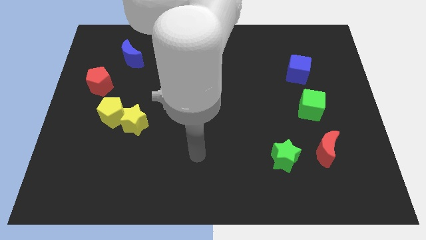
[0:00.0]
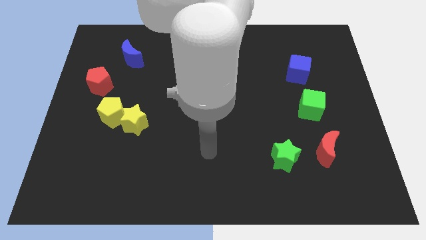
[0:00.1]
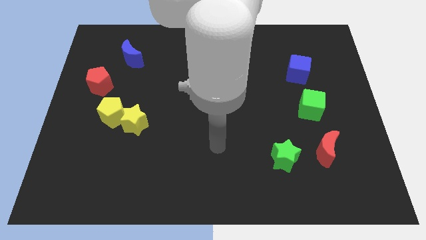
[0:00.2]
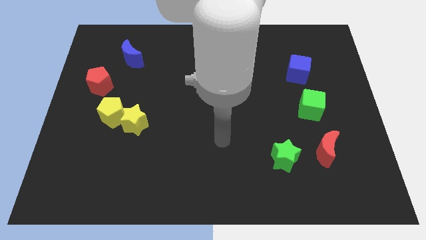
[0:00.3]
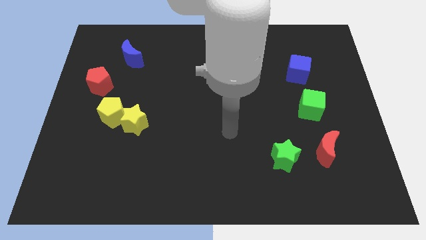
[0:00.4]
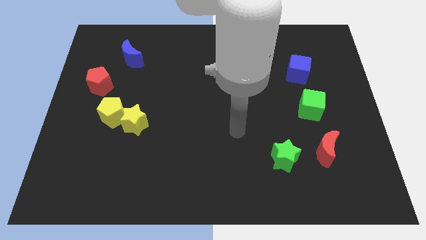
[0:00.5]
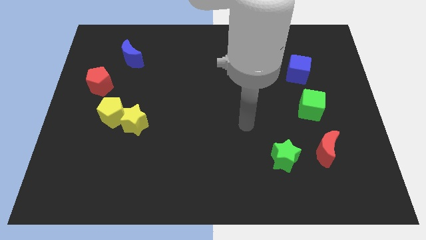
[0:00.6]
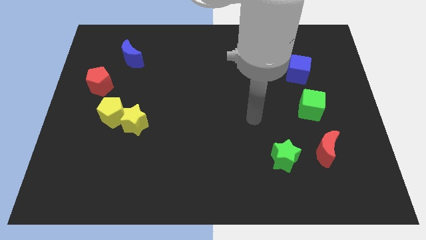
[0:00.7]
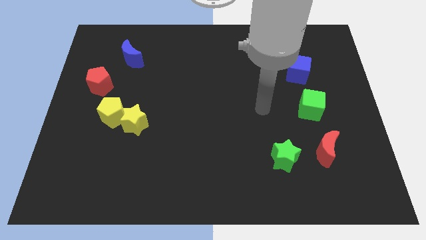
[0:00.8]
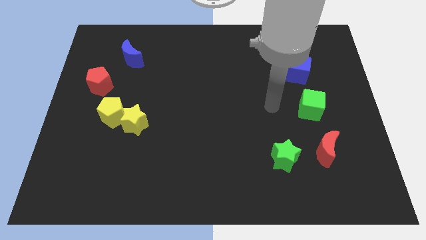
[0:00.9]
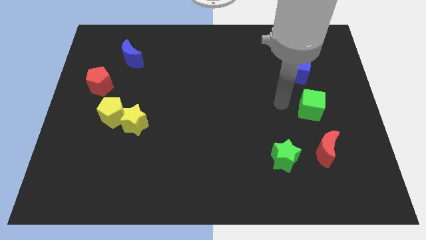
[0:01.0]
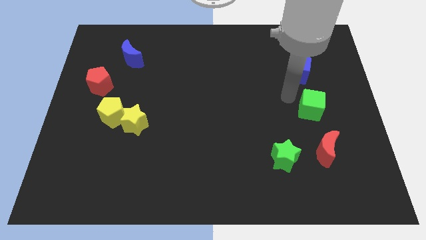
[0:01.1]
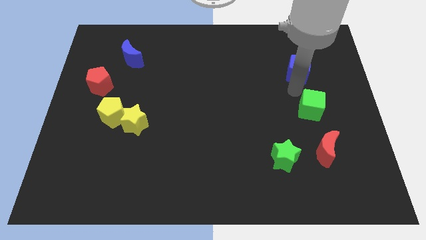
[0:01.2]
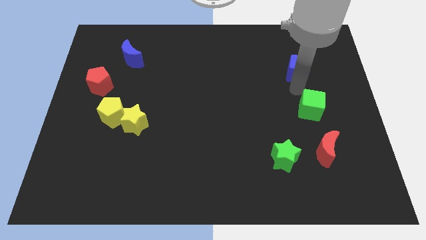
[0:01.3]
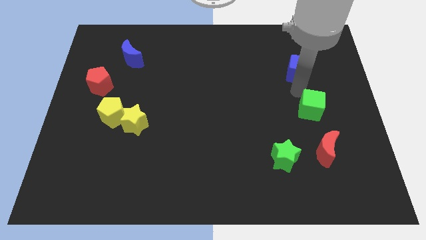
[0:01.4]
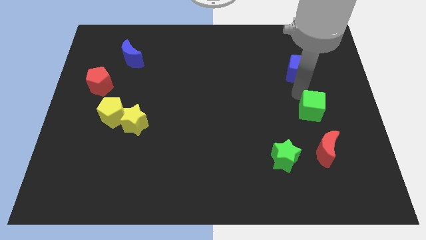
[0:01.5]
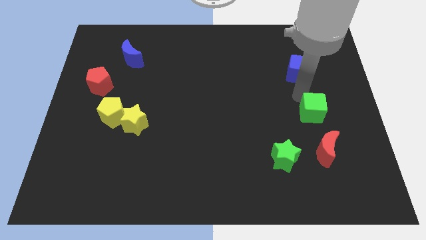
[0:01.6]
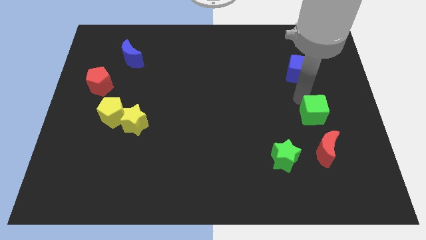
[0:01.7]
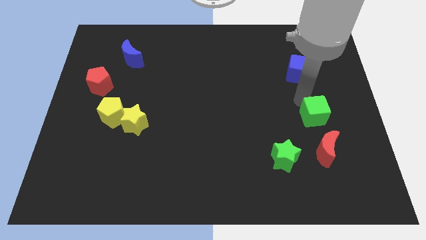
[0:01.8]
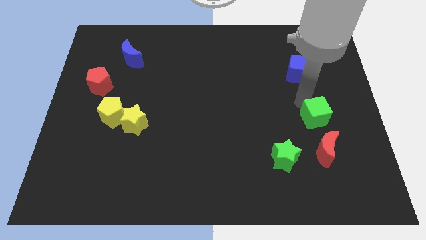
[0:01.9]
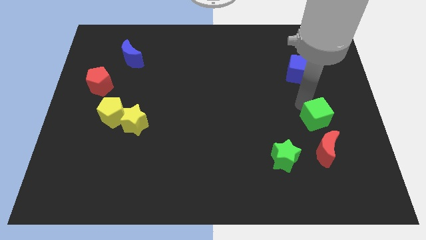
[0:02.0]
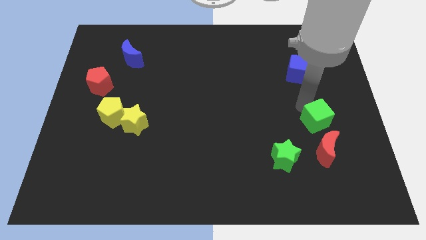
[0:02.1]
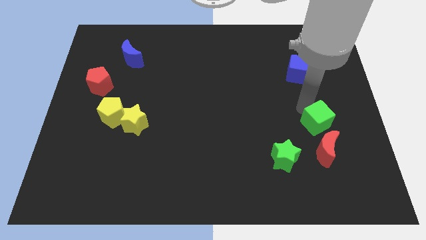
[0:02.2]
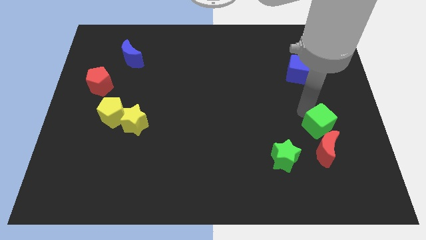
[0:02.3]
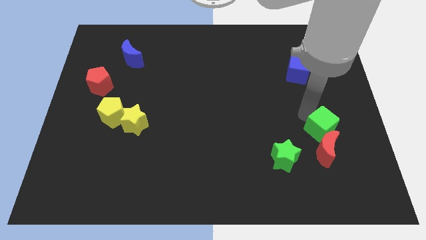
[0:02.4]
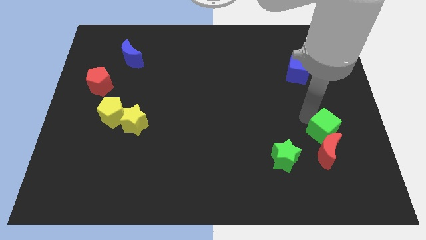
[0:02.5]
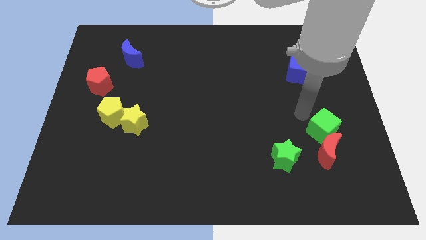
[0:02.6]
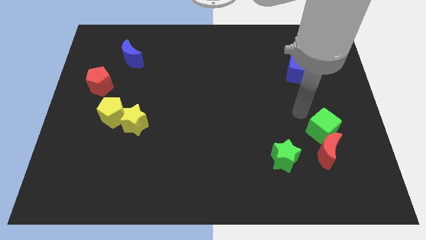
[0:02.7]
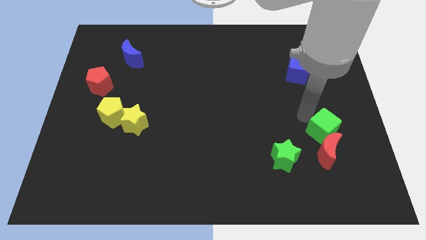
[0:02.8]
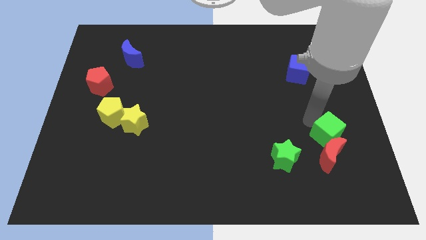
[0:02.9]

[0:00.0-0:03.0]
slide the green cube slightly downwards

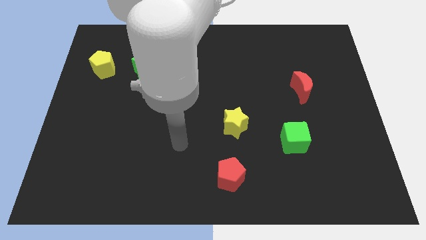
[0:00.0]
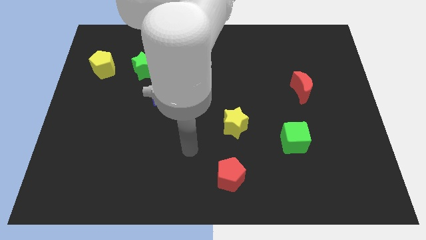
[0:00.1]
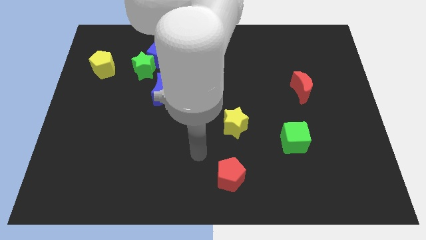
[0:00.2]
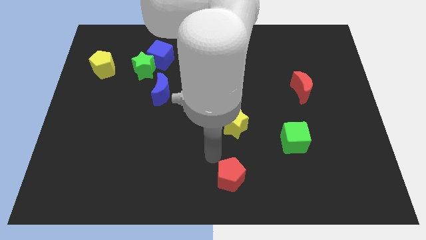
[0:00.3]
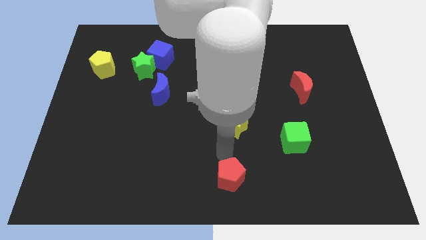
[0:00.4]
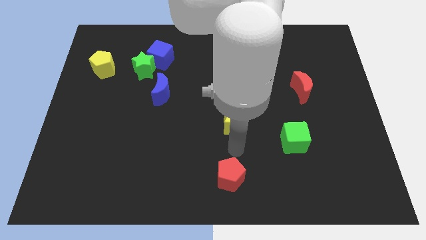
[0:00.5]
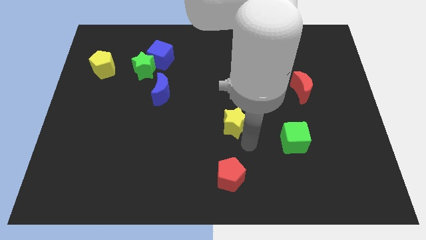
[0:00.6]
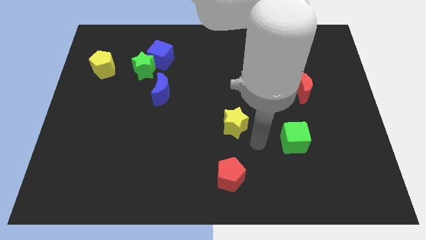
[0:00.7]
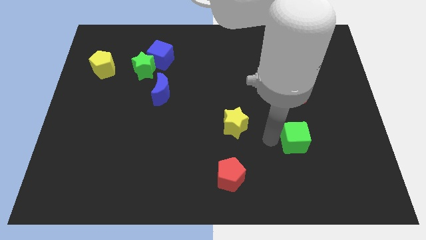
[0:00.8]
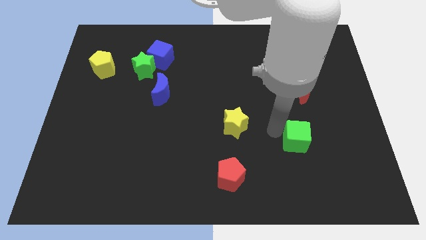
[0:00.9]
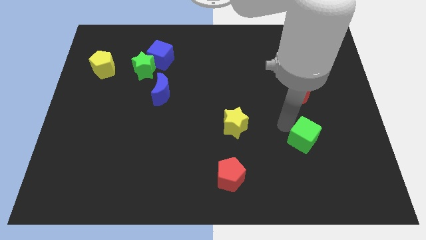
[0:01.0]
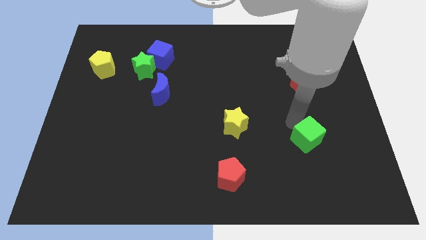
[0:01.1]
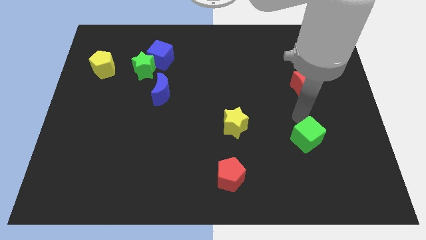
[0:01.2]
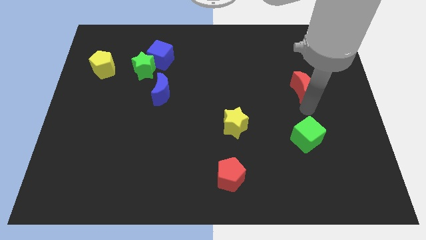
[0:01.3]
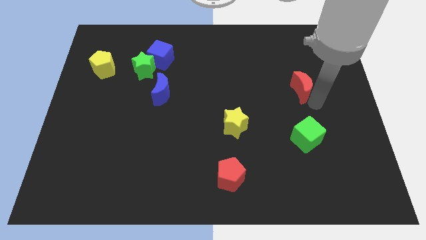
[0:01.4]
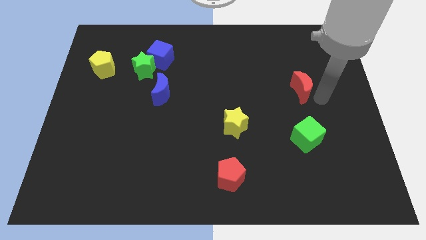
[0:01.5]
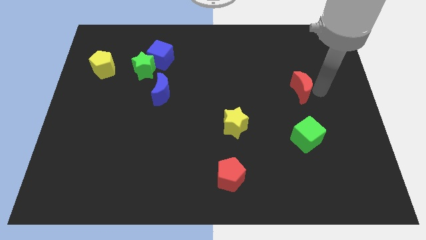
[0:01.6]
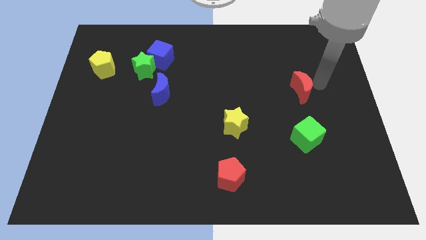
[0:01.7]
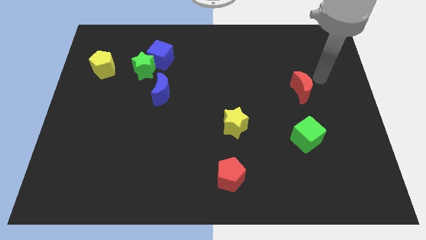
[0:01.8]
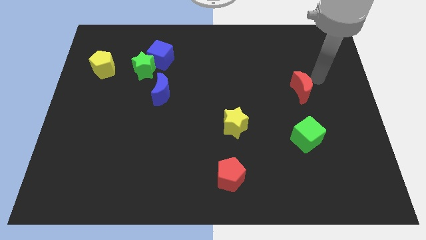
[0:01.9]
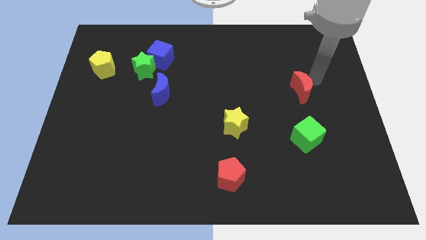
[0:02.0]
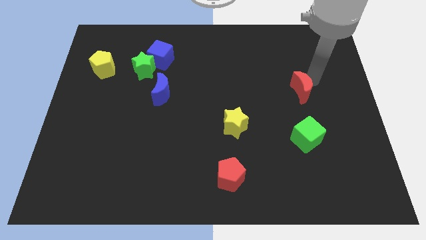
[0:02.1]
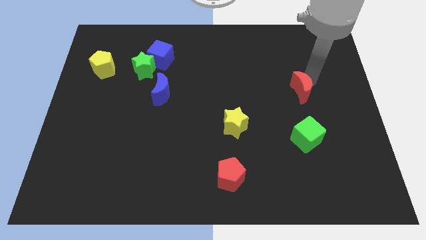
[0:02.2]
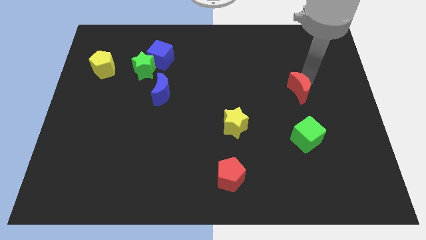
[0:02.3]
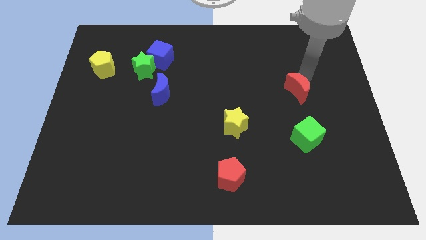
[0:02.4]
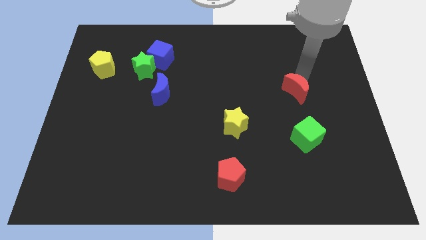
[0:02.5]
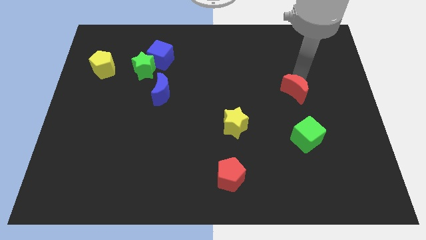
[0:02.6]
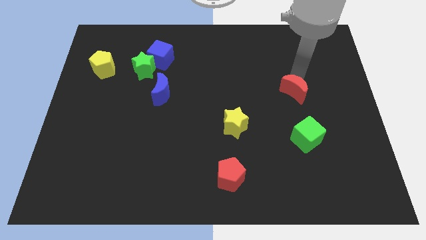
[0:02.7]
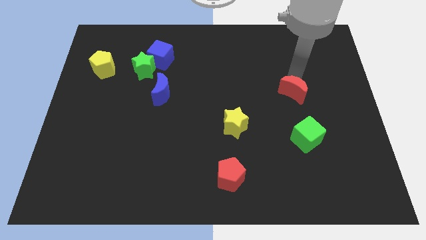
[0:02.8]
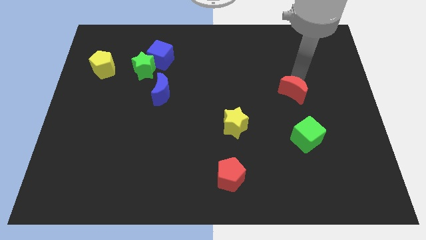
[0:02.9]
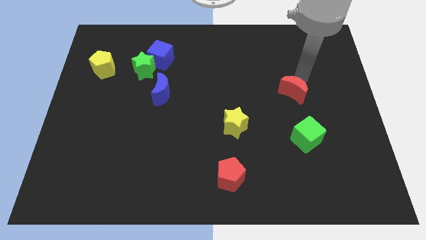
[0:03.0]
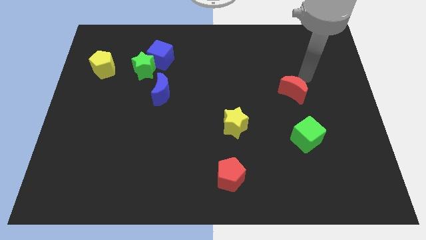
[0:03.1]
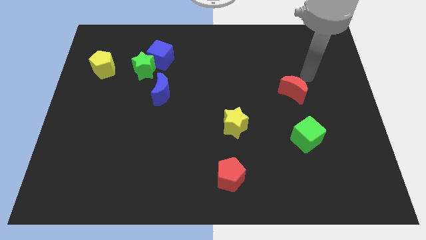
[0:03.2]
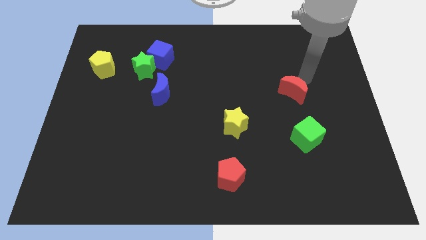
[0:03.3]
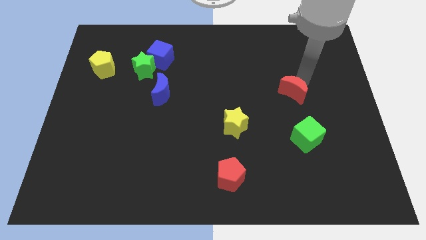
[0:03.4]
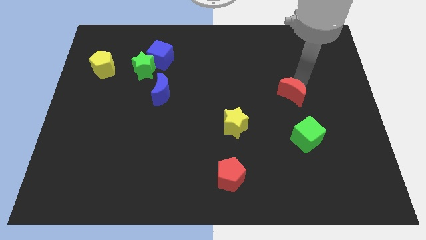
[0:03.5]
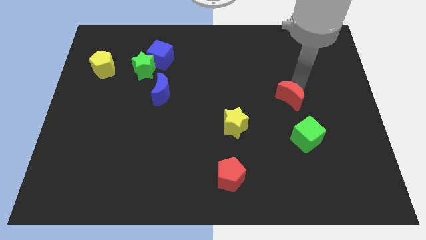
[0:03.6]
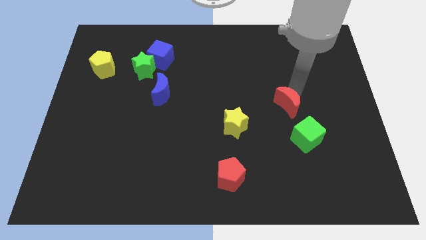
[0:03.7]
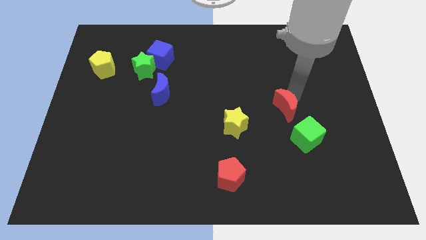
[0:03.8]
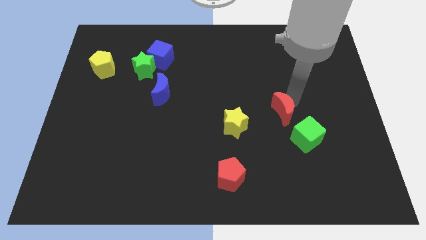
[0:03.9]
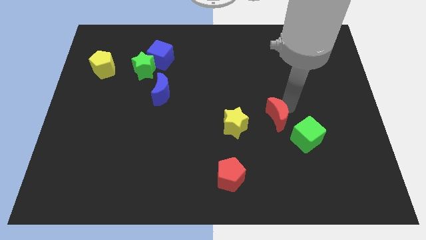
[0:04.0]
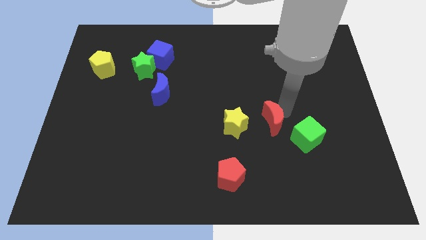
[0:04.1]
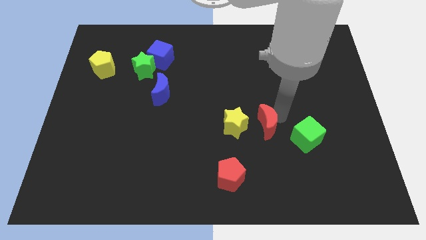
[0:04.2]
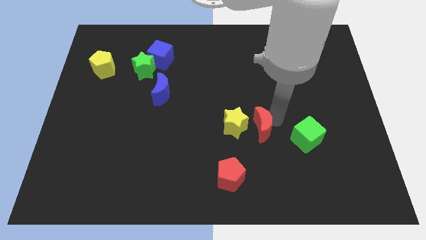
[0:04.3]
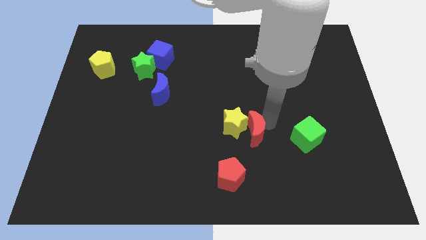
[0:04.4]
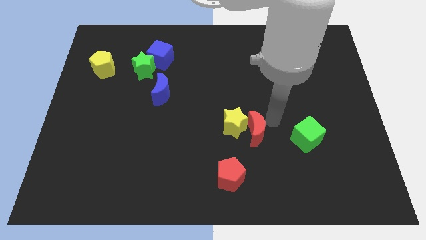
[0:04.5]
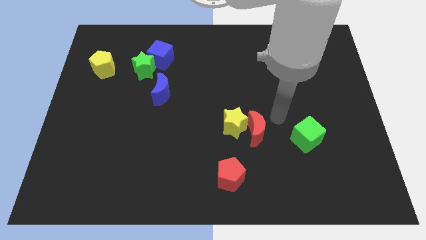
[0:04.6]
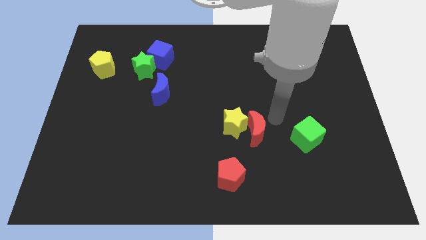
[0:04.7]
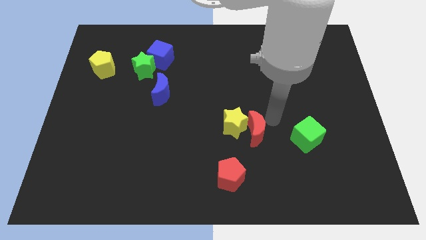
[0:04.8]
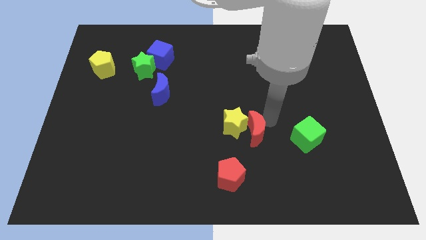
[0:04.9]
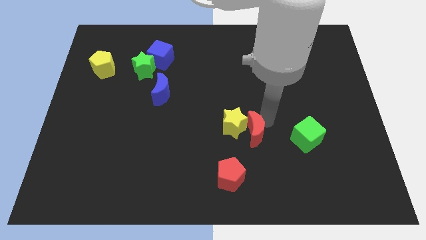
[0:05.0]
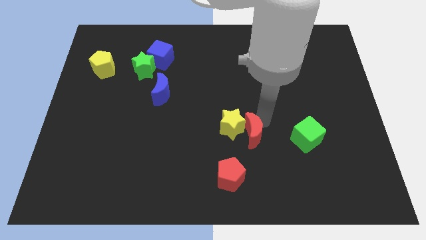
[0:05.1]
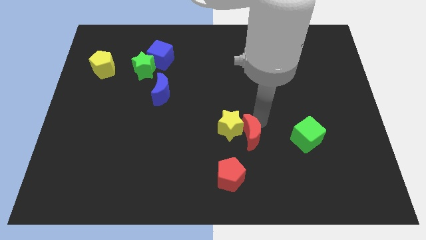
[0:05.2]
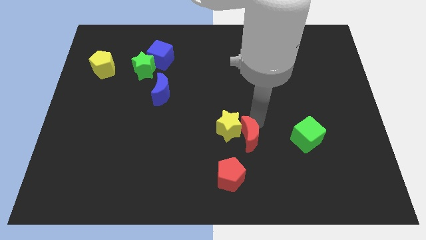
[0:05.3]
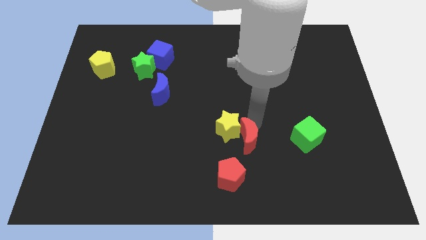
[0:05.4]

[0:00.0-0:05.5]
move the red moon down and left
